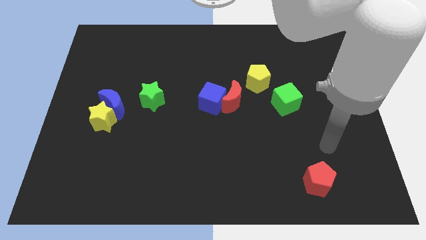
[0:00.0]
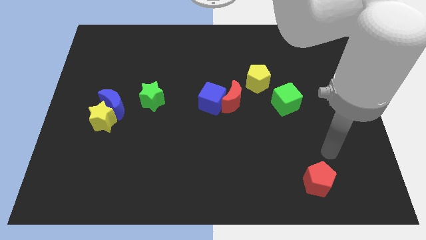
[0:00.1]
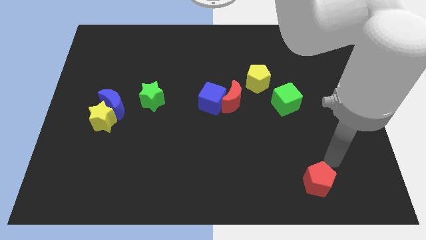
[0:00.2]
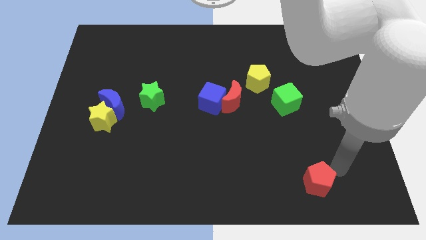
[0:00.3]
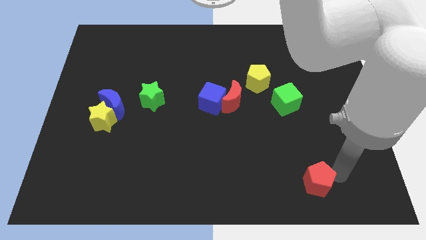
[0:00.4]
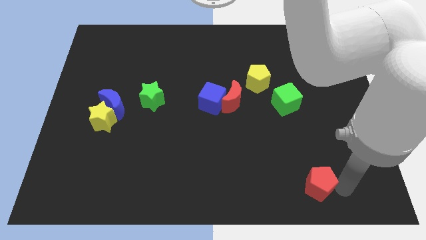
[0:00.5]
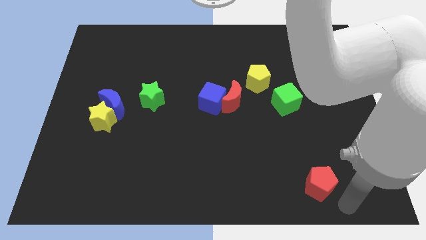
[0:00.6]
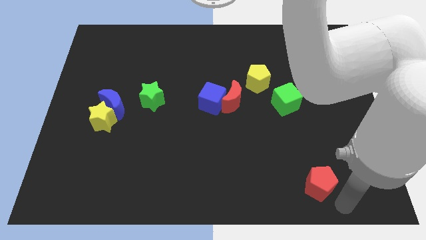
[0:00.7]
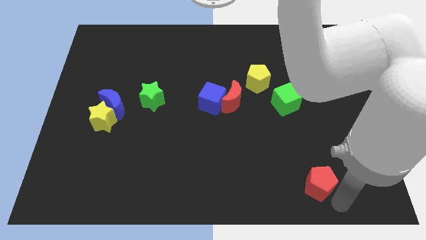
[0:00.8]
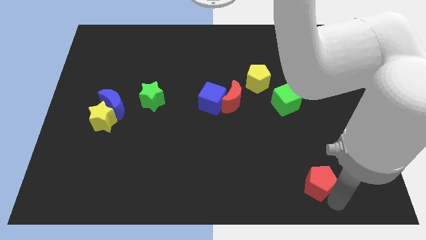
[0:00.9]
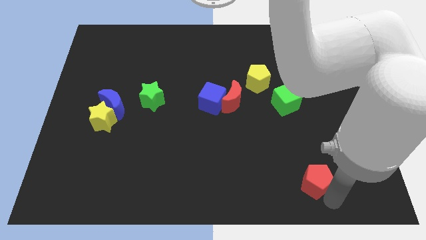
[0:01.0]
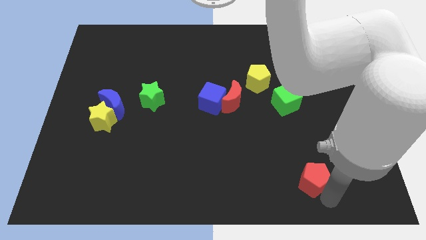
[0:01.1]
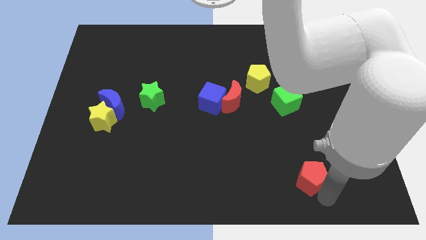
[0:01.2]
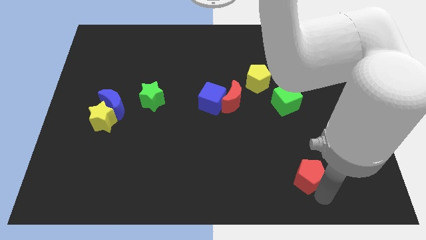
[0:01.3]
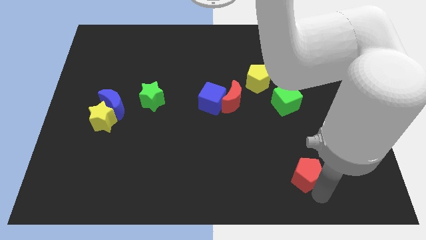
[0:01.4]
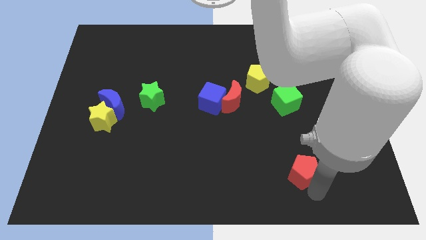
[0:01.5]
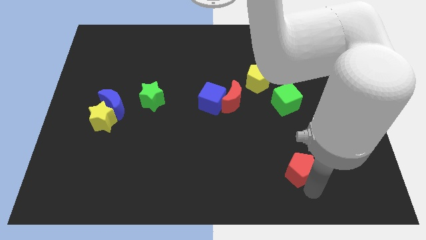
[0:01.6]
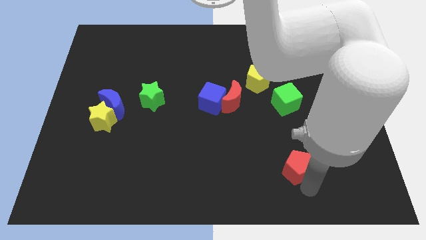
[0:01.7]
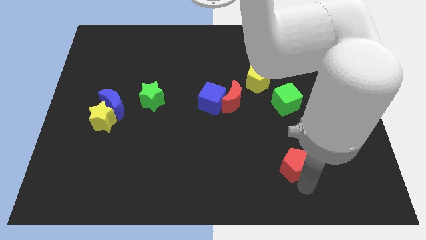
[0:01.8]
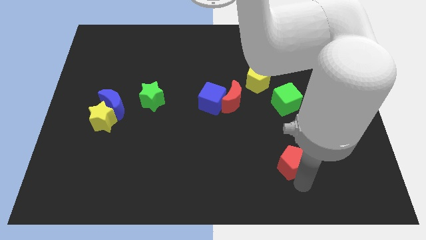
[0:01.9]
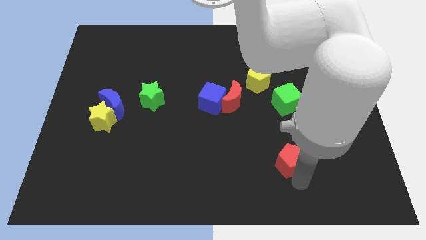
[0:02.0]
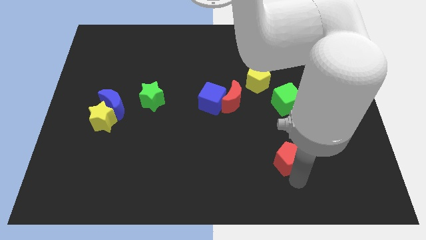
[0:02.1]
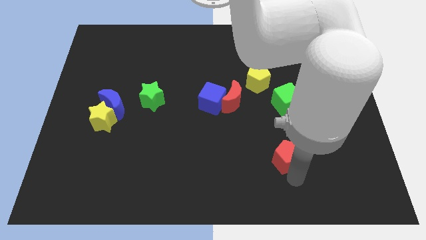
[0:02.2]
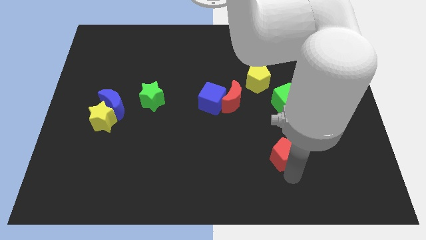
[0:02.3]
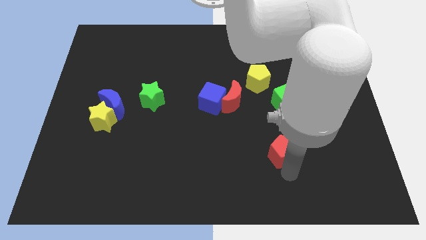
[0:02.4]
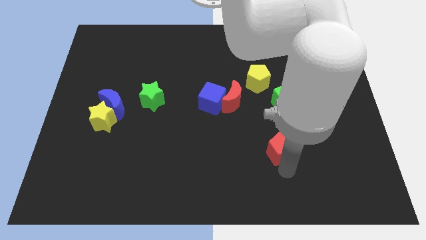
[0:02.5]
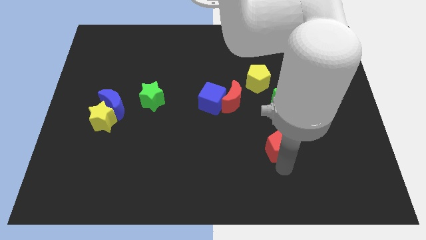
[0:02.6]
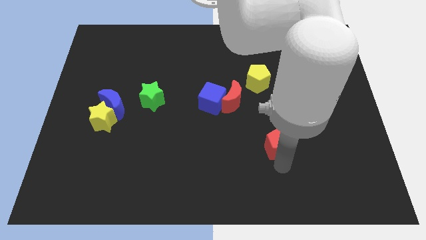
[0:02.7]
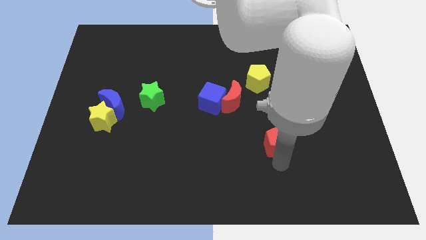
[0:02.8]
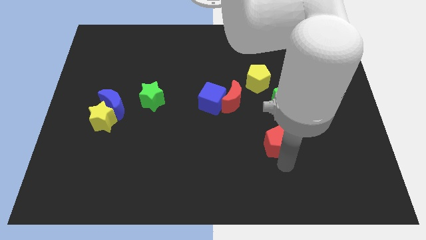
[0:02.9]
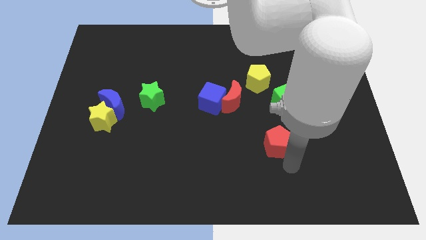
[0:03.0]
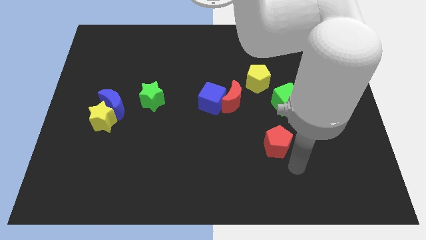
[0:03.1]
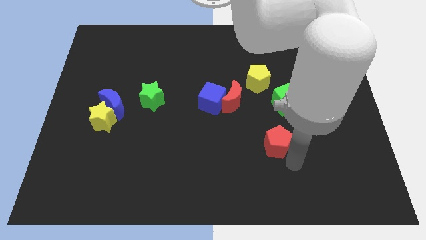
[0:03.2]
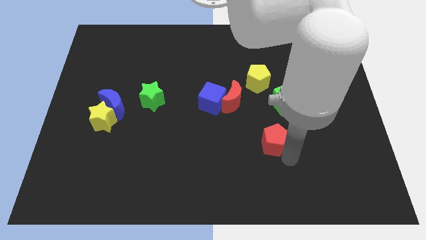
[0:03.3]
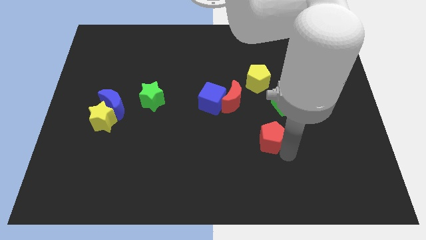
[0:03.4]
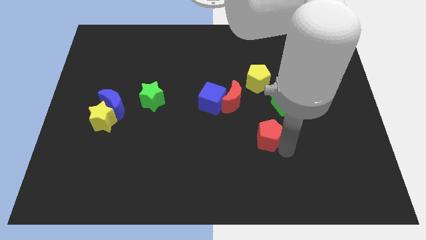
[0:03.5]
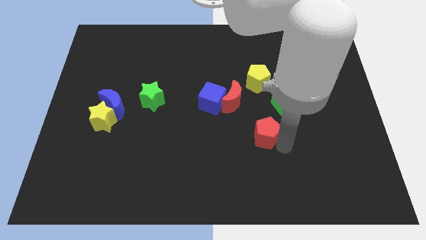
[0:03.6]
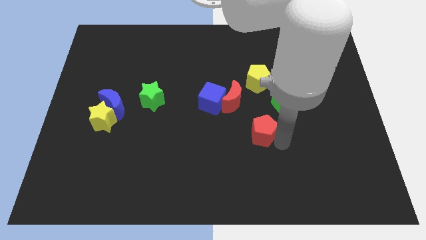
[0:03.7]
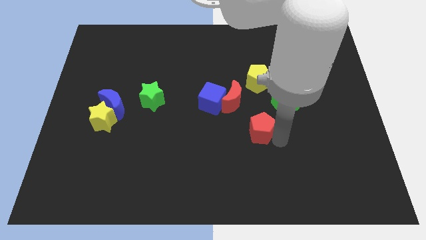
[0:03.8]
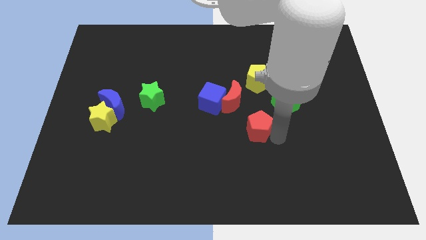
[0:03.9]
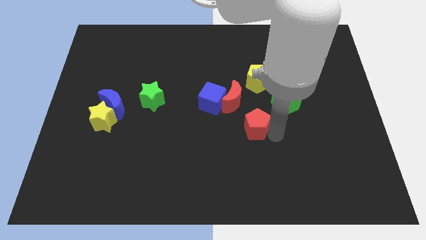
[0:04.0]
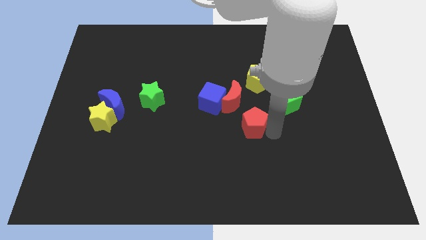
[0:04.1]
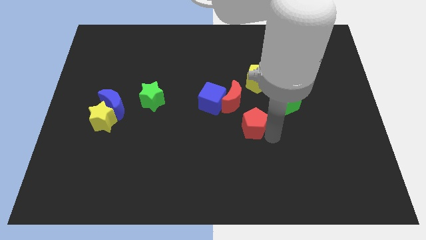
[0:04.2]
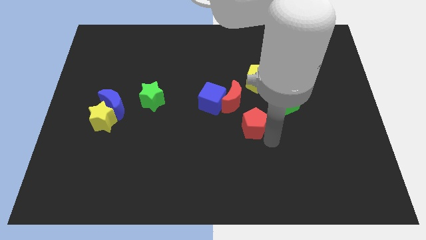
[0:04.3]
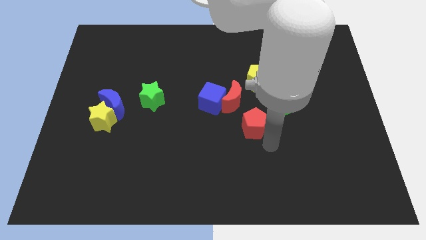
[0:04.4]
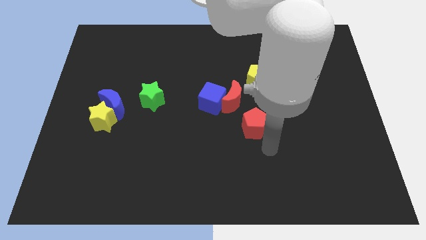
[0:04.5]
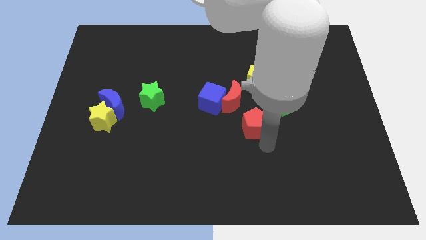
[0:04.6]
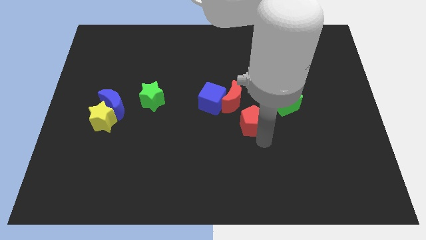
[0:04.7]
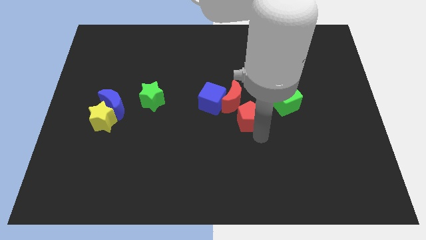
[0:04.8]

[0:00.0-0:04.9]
push the red pentagon close to the red moon

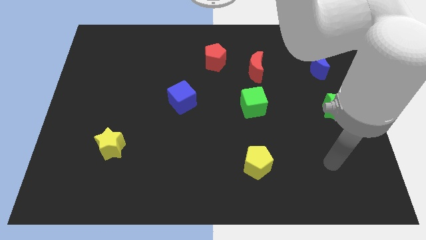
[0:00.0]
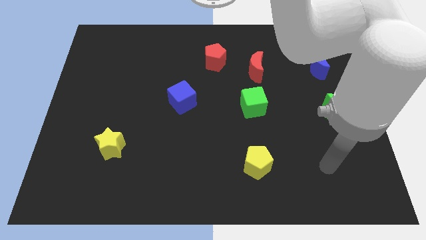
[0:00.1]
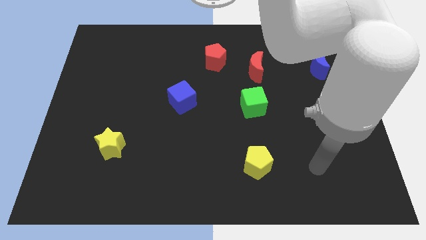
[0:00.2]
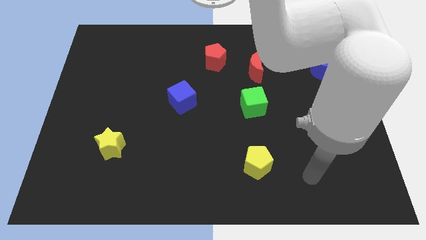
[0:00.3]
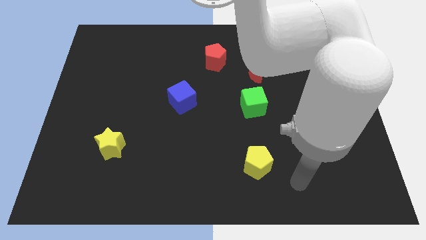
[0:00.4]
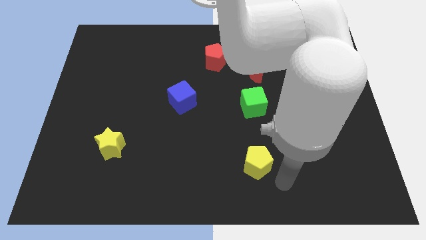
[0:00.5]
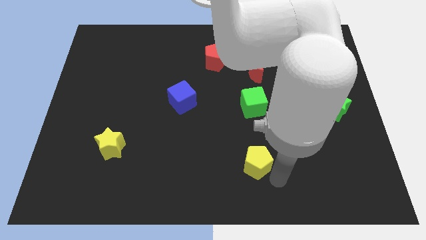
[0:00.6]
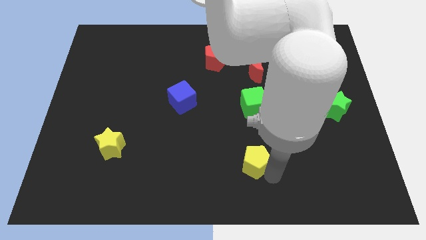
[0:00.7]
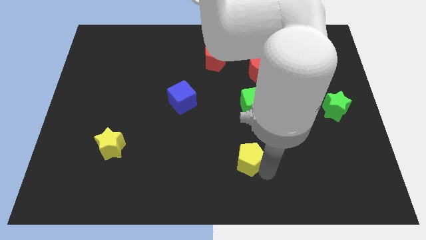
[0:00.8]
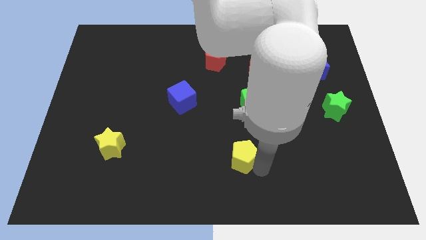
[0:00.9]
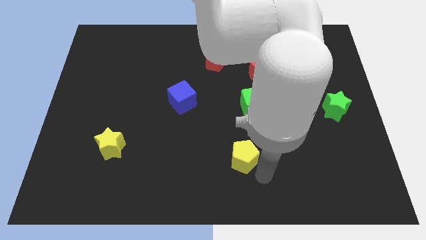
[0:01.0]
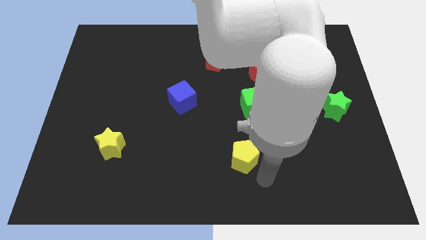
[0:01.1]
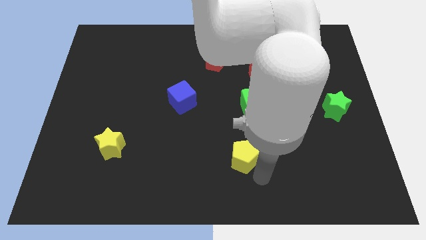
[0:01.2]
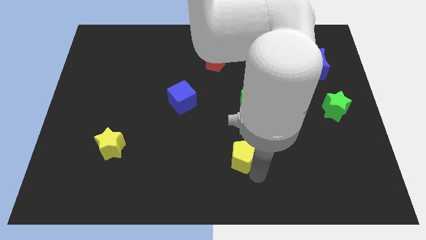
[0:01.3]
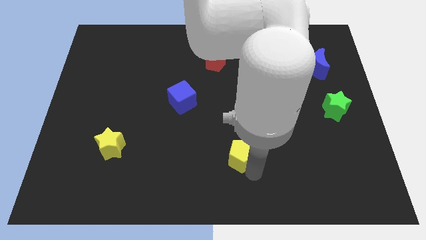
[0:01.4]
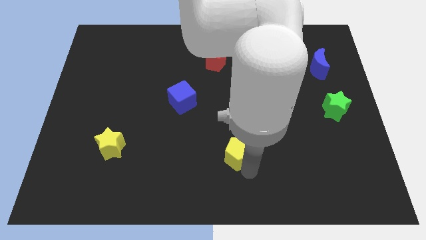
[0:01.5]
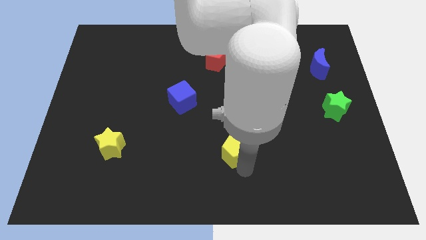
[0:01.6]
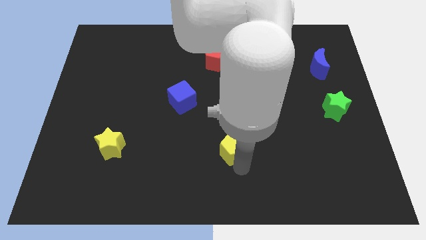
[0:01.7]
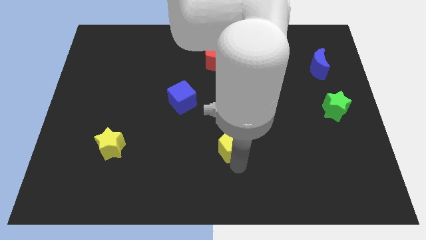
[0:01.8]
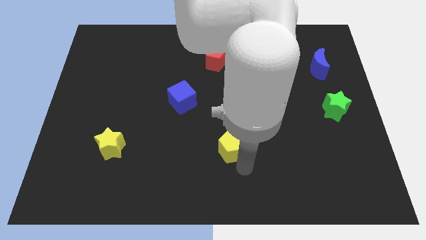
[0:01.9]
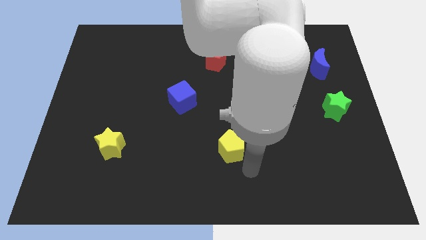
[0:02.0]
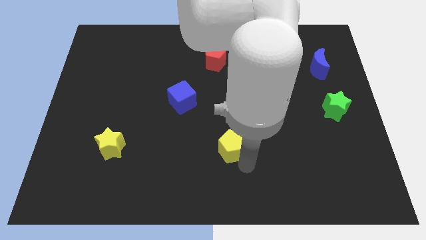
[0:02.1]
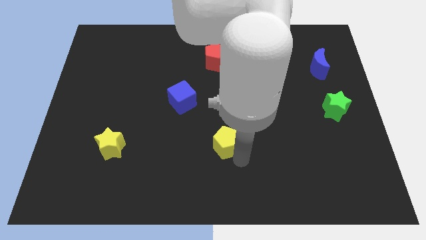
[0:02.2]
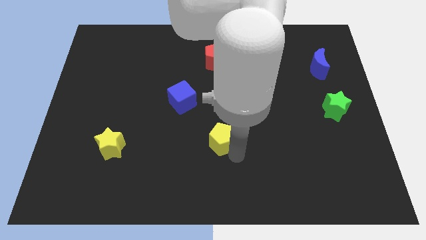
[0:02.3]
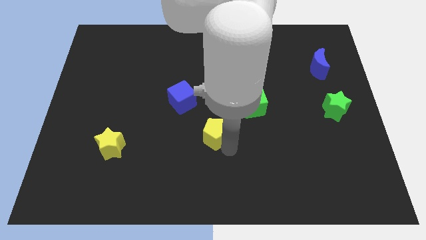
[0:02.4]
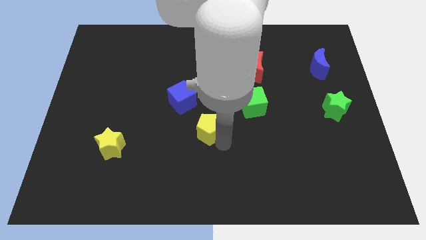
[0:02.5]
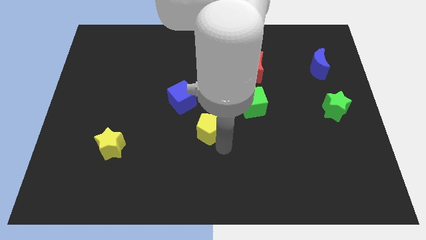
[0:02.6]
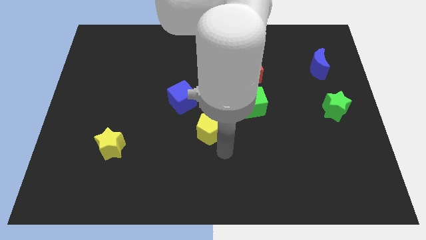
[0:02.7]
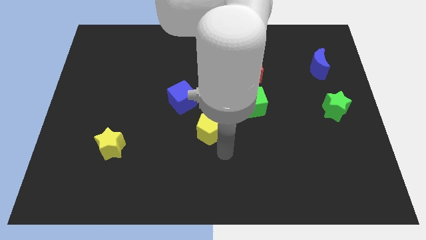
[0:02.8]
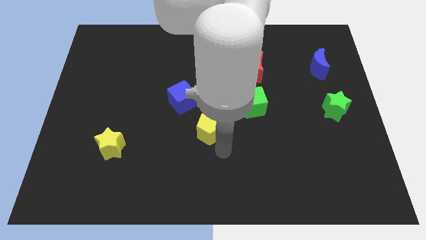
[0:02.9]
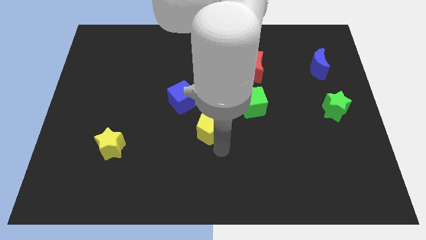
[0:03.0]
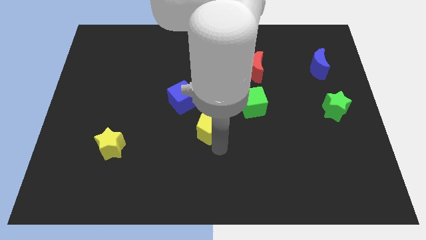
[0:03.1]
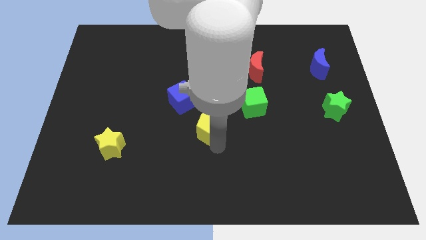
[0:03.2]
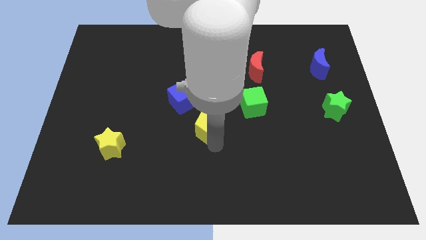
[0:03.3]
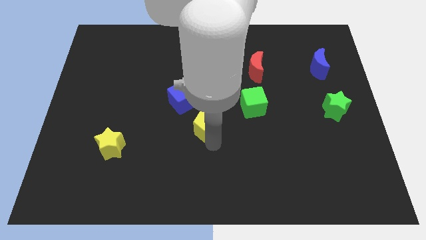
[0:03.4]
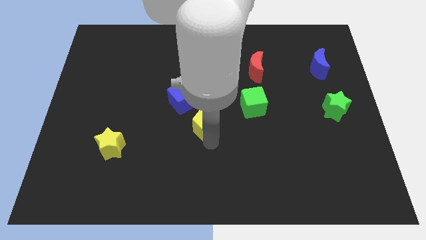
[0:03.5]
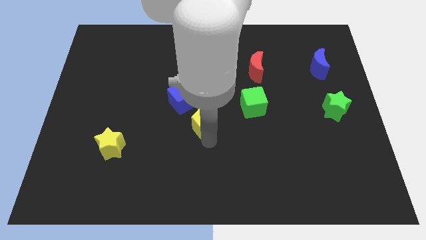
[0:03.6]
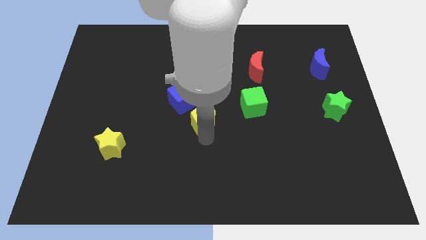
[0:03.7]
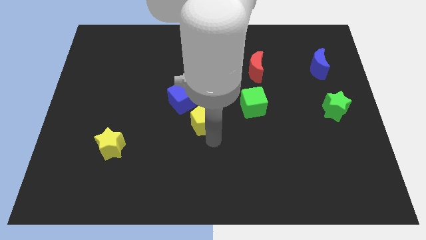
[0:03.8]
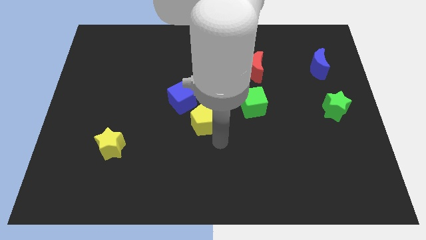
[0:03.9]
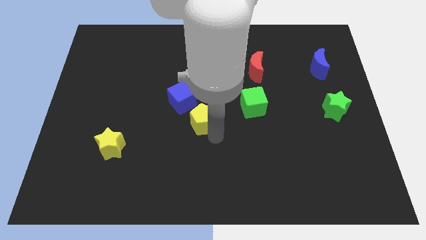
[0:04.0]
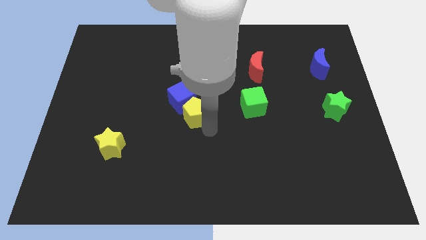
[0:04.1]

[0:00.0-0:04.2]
slide the yellow pentagon next to the blue cube
